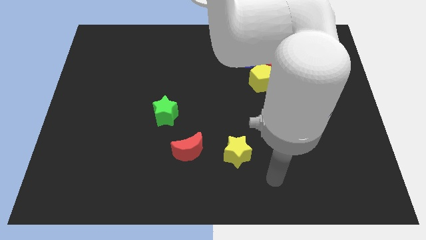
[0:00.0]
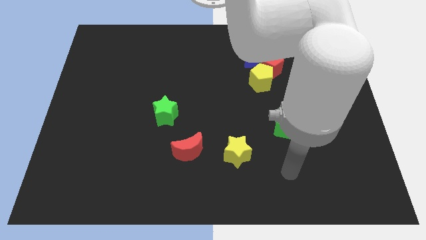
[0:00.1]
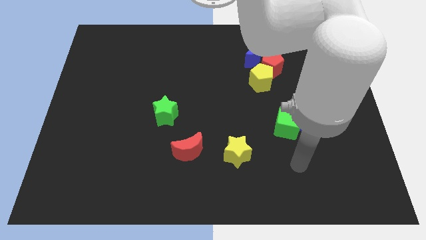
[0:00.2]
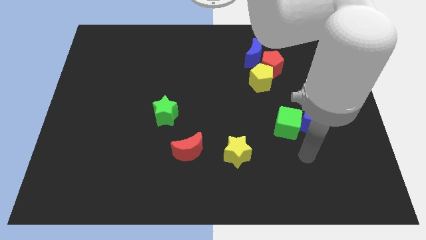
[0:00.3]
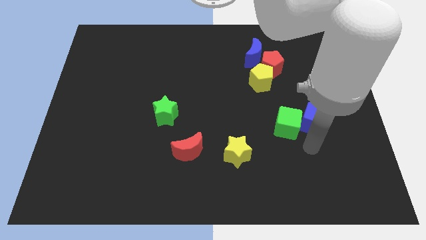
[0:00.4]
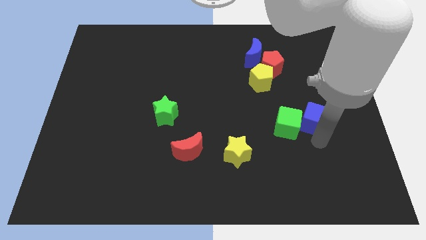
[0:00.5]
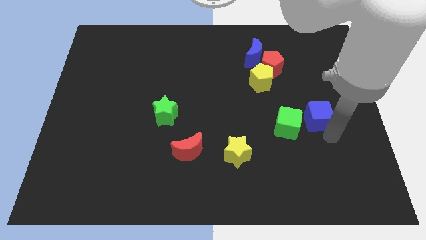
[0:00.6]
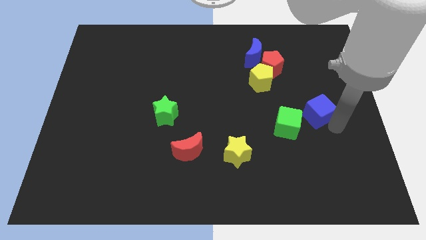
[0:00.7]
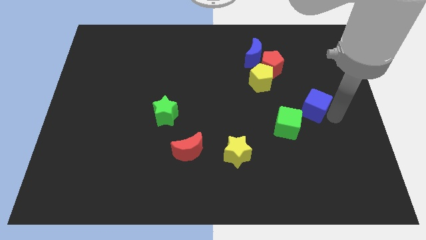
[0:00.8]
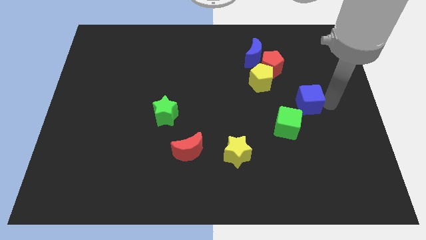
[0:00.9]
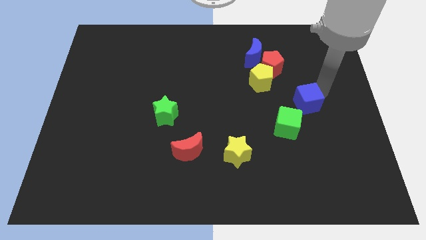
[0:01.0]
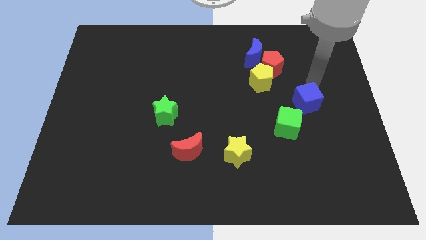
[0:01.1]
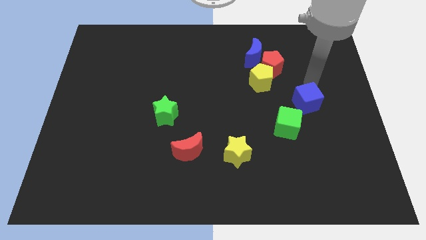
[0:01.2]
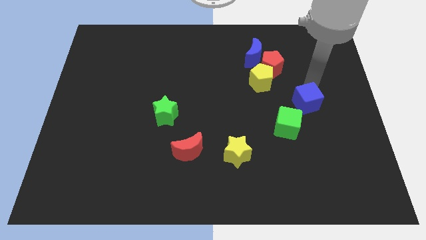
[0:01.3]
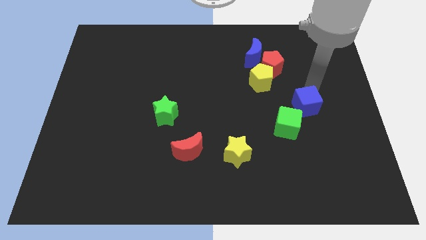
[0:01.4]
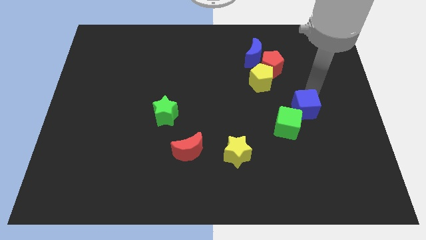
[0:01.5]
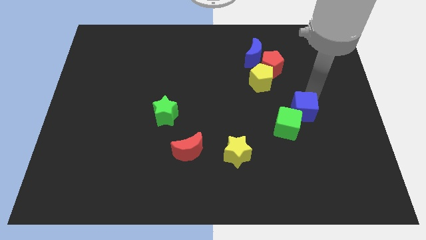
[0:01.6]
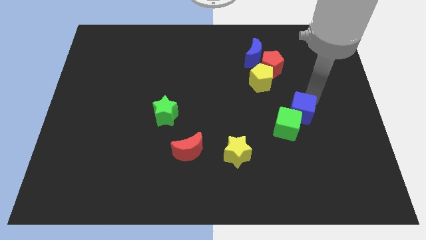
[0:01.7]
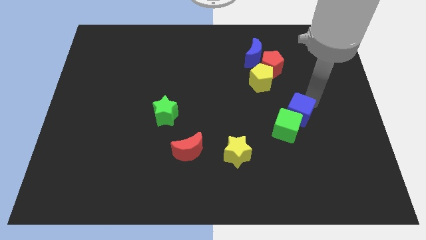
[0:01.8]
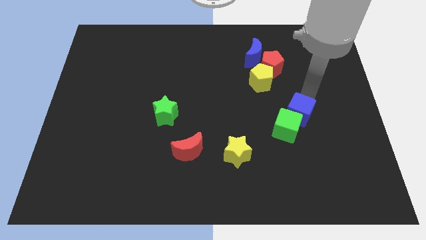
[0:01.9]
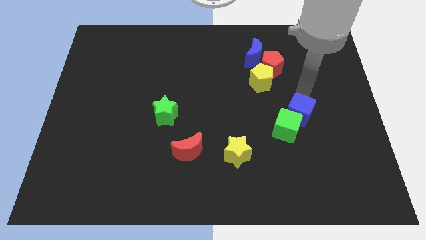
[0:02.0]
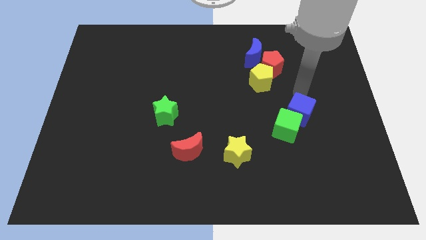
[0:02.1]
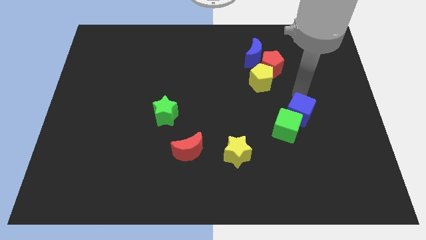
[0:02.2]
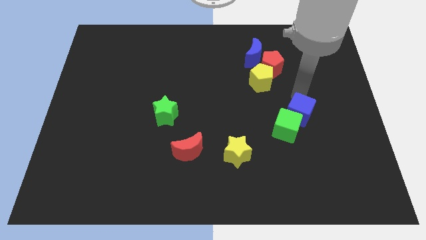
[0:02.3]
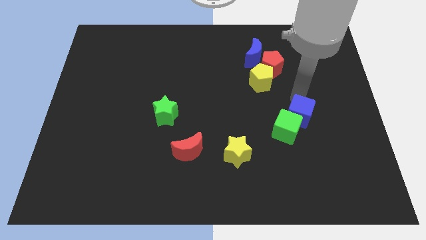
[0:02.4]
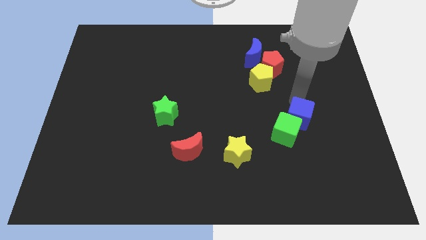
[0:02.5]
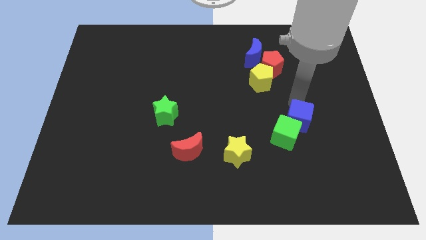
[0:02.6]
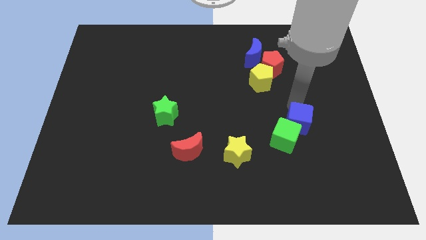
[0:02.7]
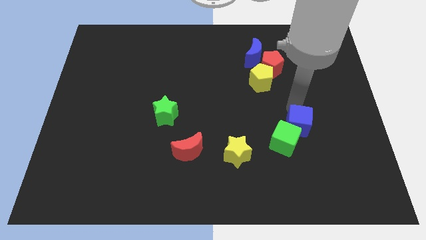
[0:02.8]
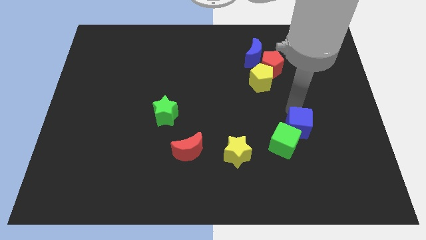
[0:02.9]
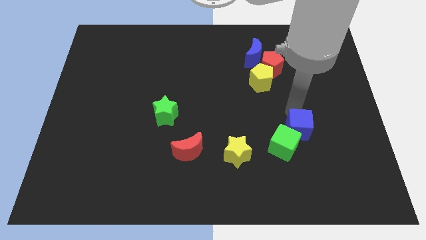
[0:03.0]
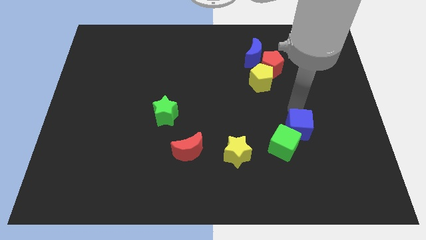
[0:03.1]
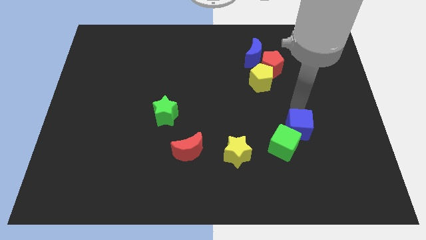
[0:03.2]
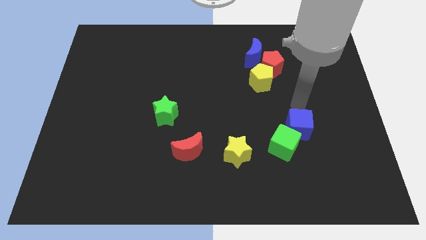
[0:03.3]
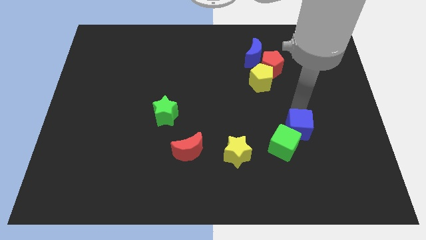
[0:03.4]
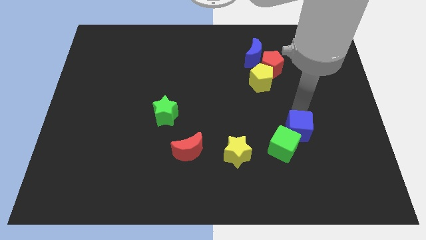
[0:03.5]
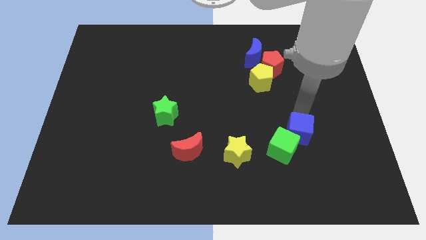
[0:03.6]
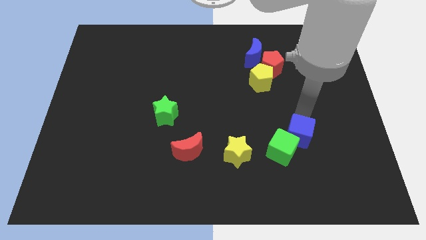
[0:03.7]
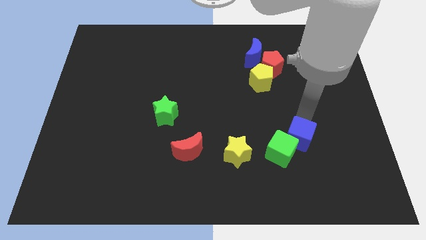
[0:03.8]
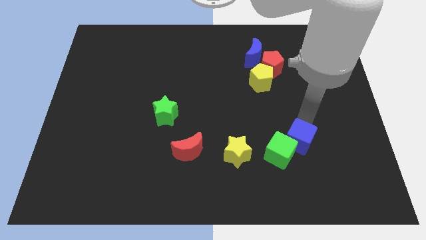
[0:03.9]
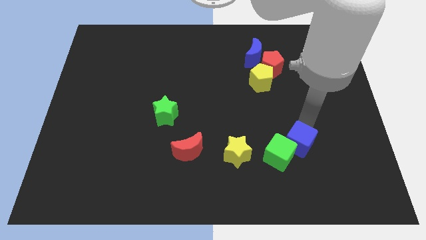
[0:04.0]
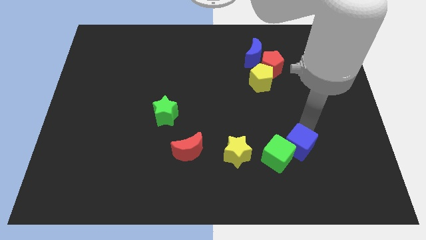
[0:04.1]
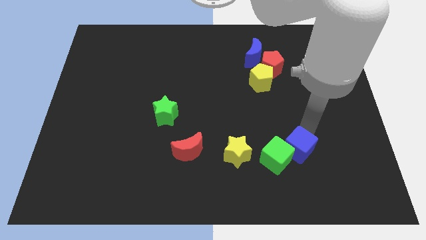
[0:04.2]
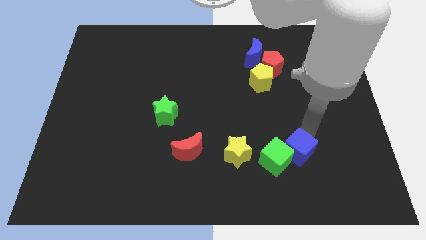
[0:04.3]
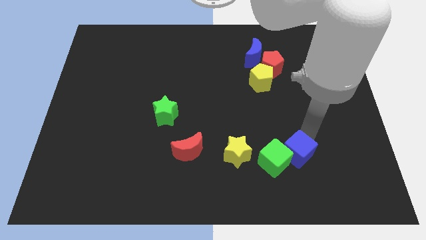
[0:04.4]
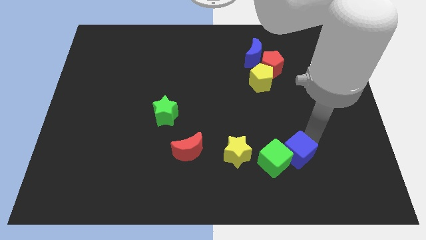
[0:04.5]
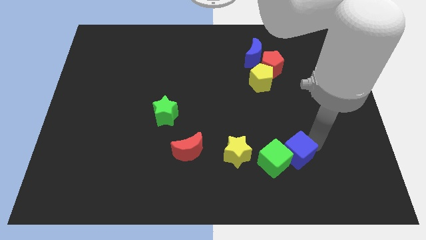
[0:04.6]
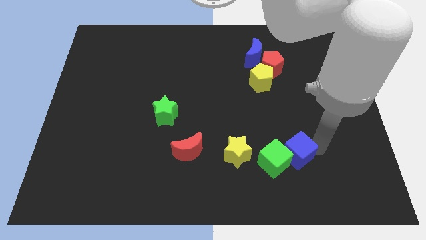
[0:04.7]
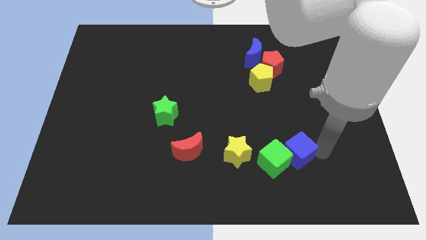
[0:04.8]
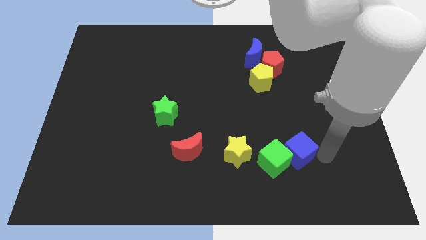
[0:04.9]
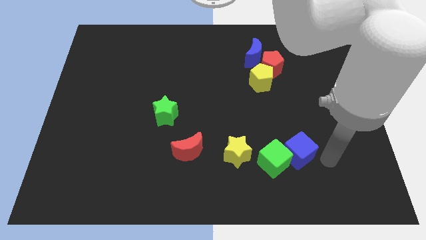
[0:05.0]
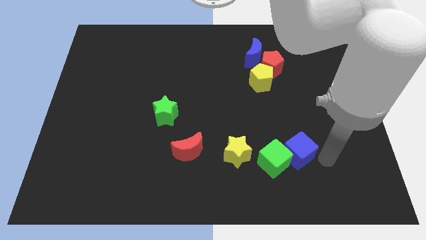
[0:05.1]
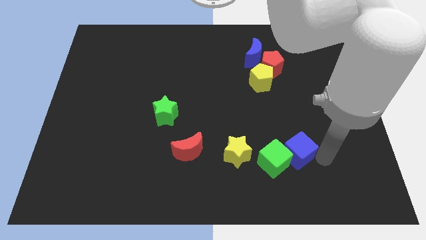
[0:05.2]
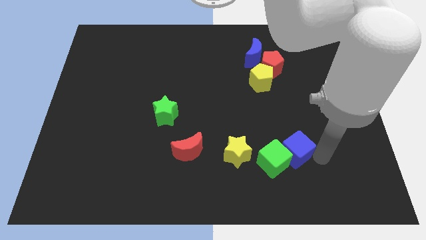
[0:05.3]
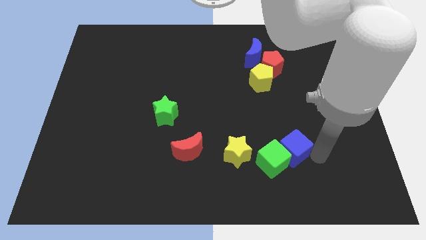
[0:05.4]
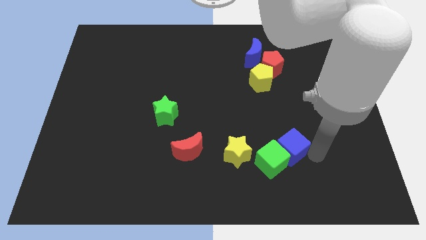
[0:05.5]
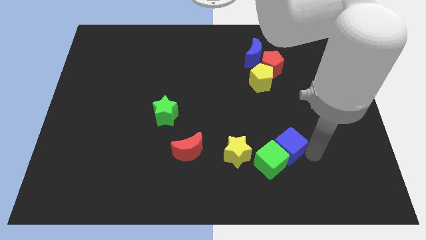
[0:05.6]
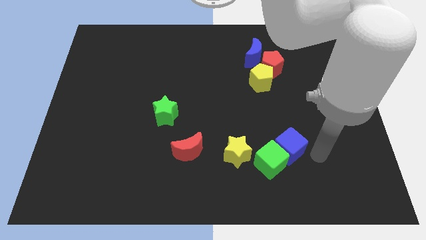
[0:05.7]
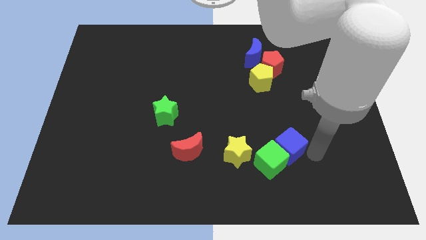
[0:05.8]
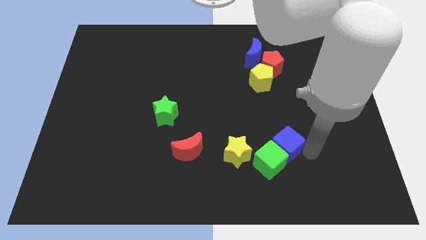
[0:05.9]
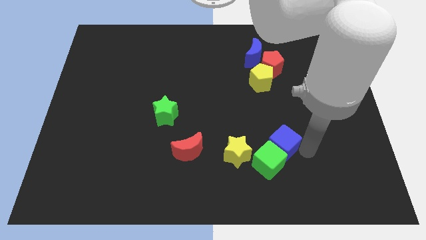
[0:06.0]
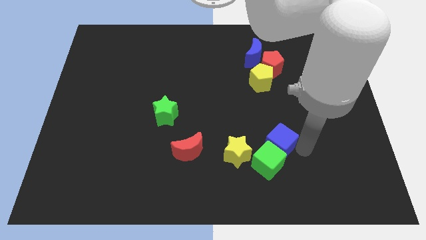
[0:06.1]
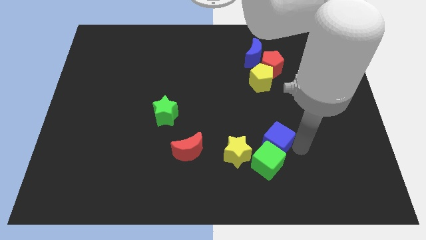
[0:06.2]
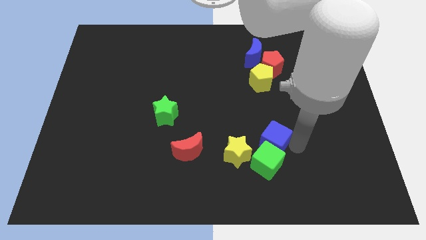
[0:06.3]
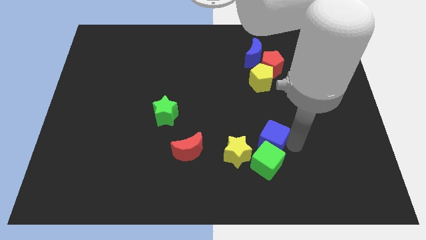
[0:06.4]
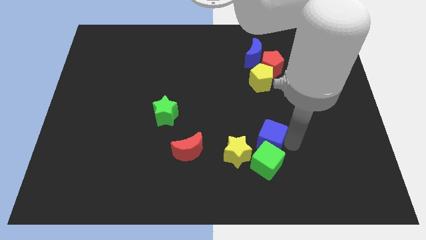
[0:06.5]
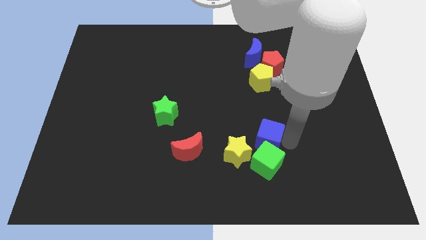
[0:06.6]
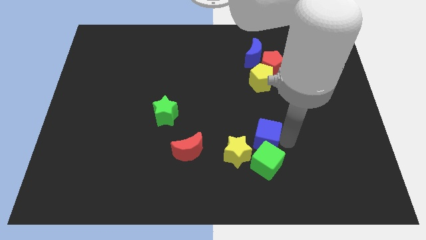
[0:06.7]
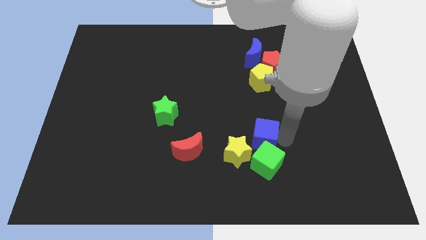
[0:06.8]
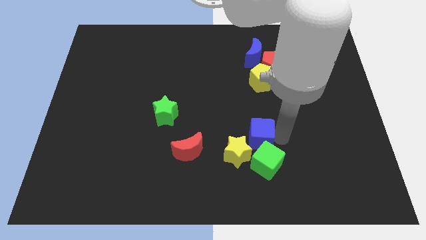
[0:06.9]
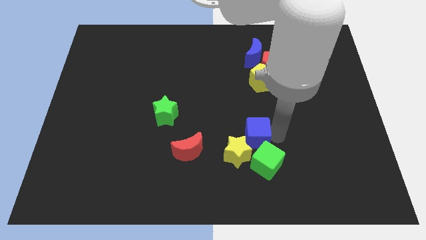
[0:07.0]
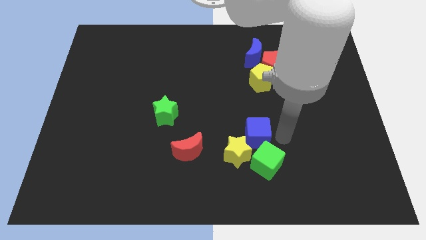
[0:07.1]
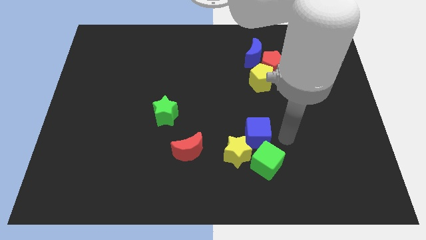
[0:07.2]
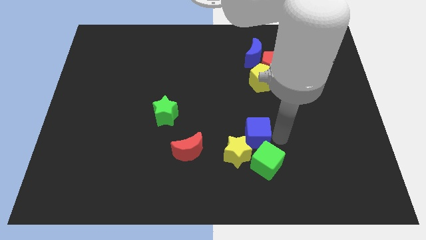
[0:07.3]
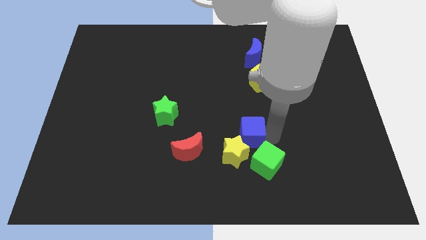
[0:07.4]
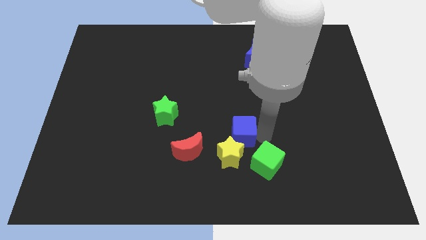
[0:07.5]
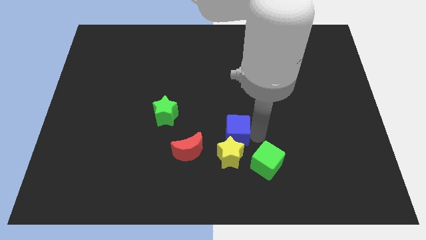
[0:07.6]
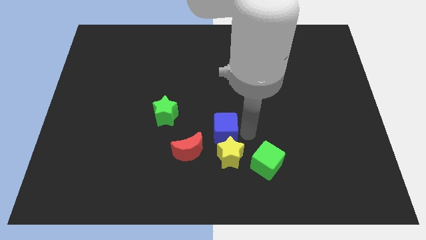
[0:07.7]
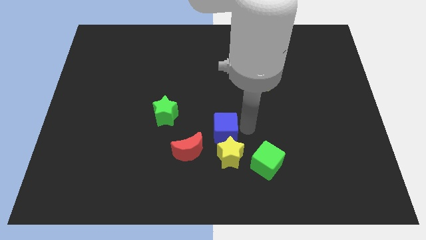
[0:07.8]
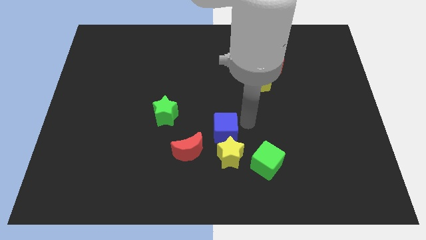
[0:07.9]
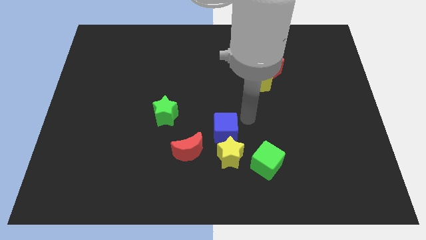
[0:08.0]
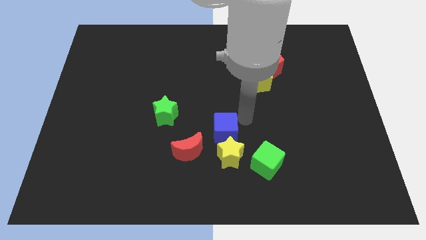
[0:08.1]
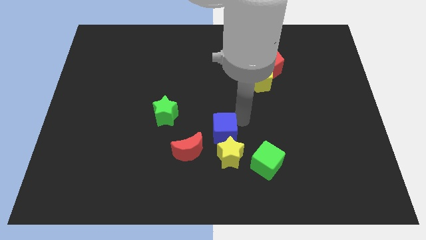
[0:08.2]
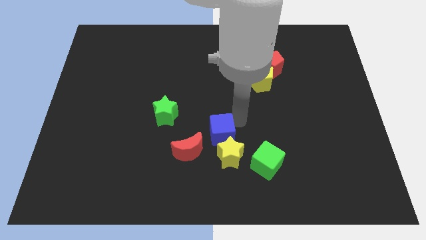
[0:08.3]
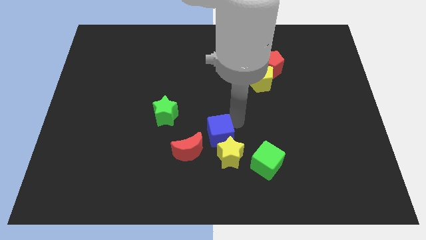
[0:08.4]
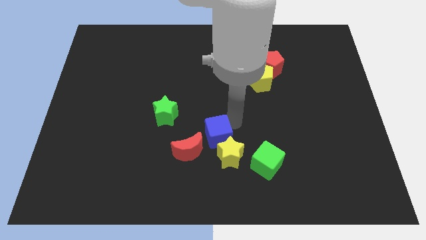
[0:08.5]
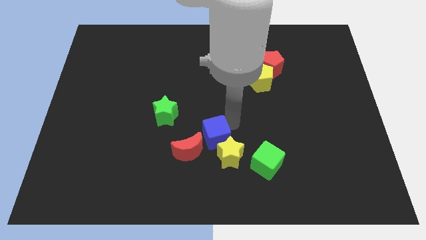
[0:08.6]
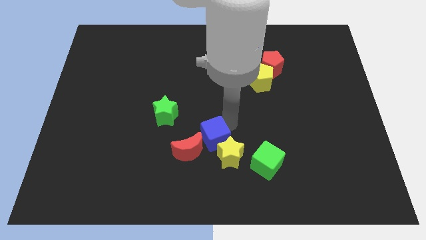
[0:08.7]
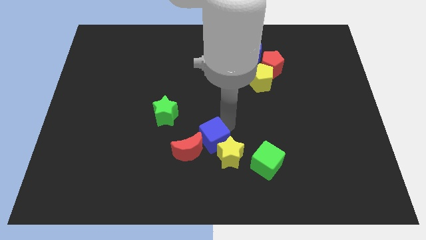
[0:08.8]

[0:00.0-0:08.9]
push the blue cube towards the red moon
